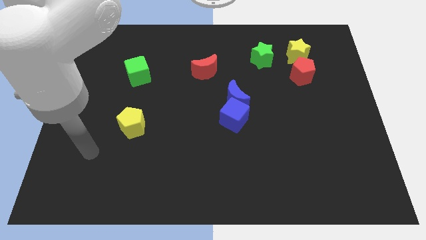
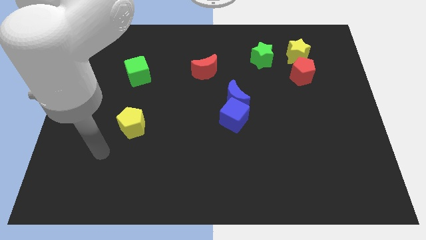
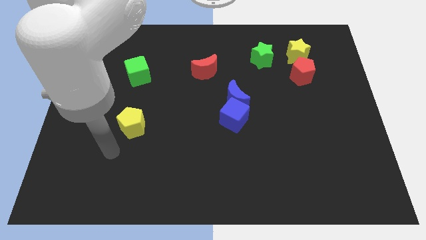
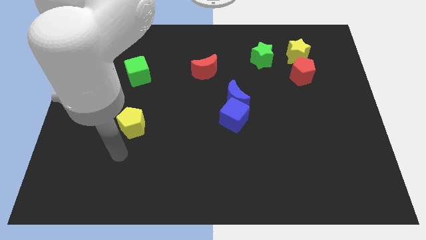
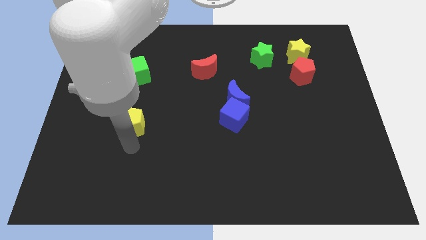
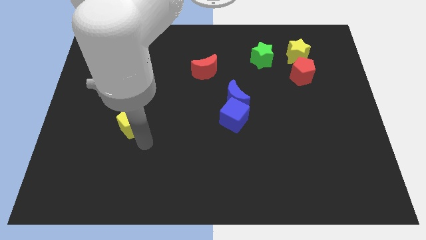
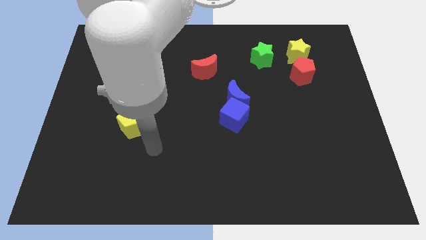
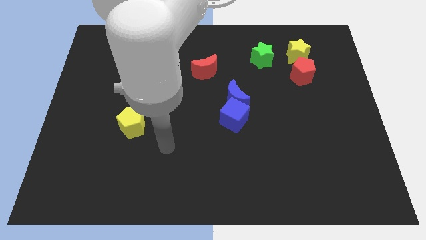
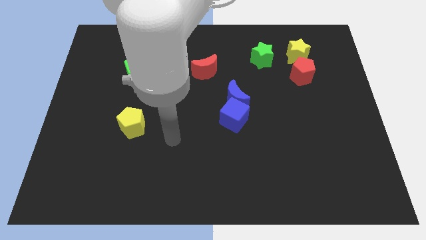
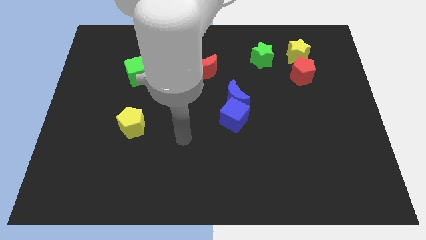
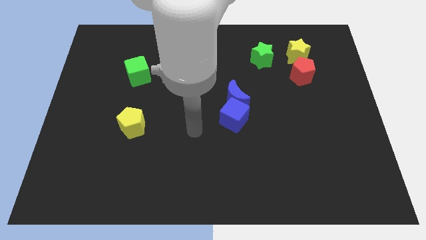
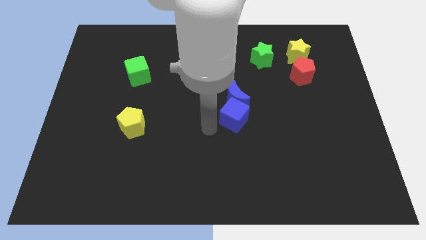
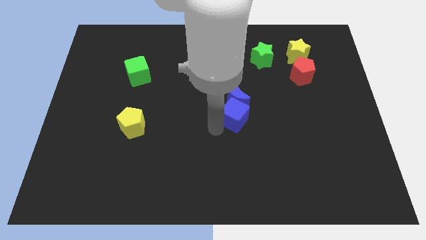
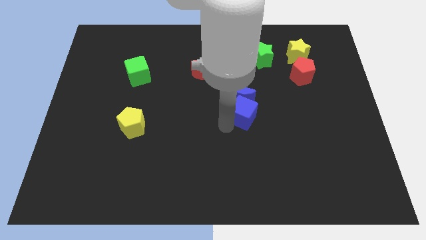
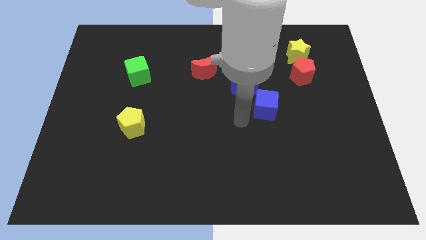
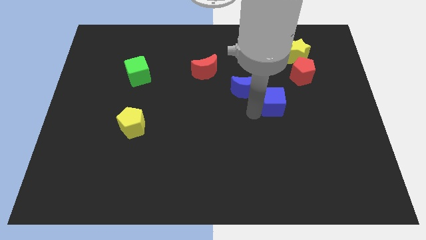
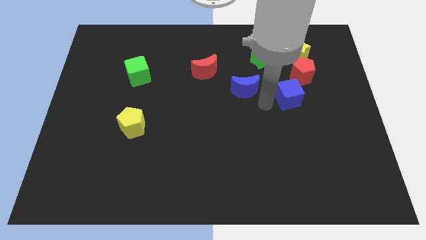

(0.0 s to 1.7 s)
pull the blue moon apart from the blue cube

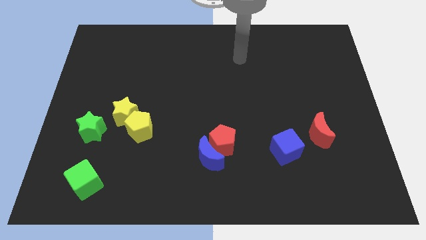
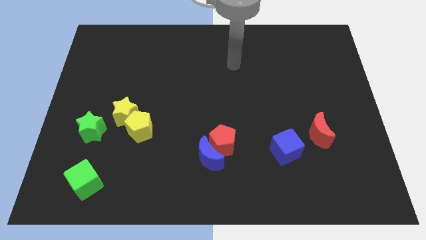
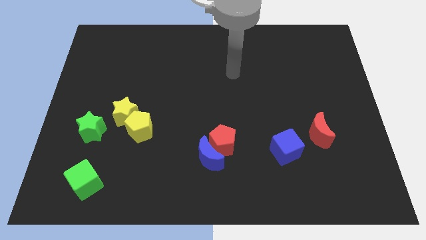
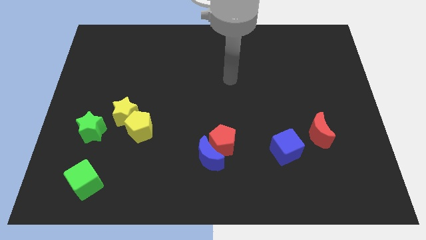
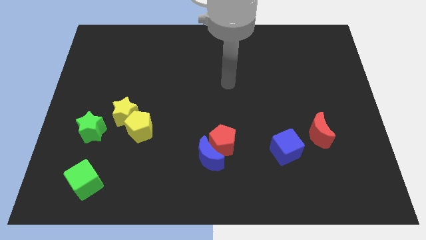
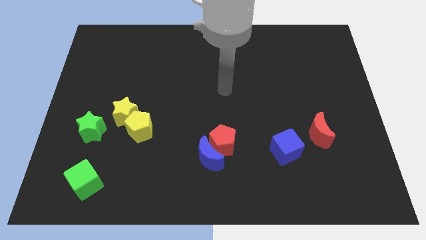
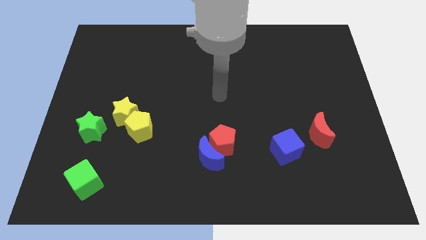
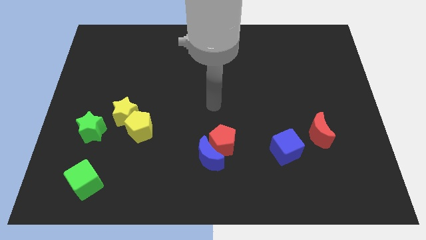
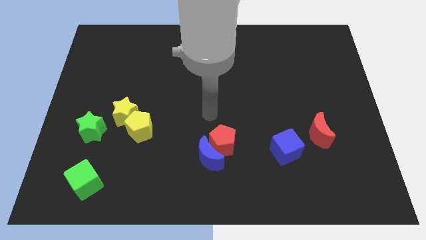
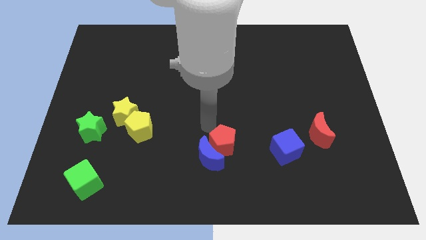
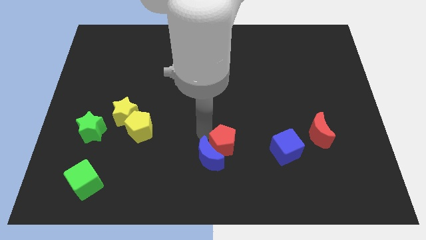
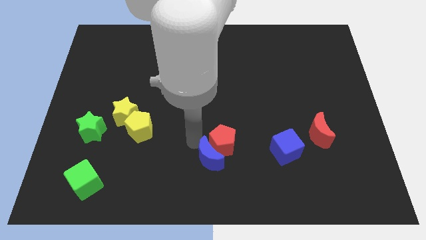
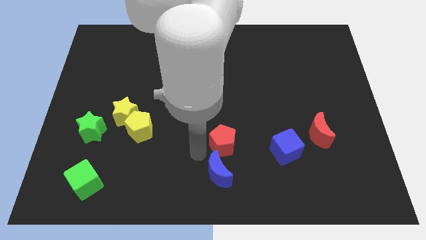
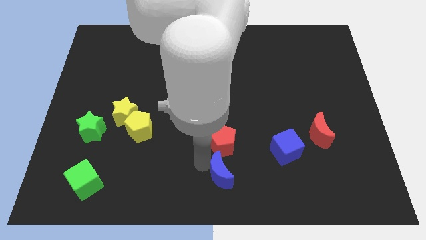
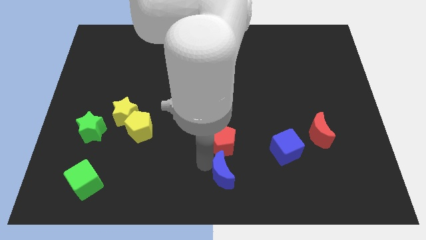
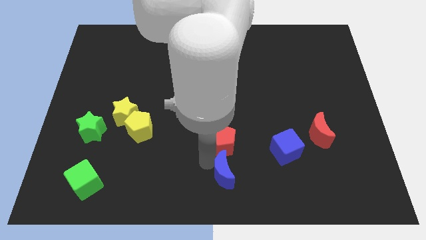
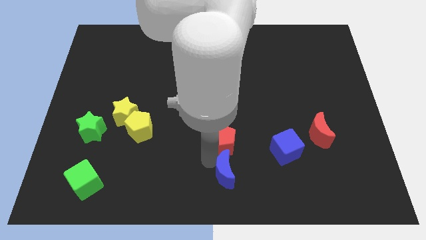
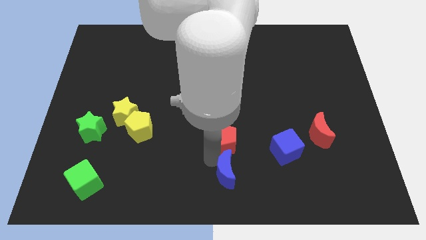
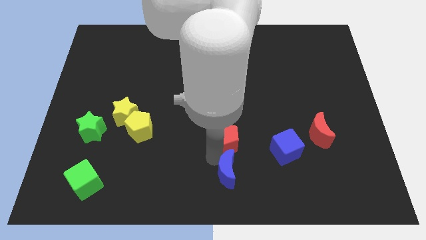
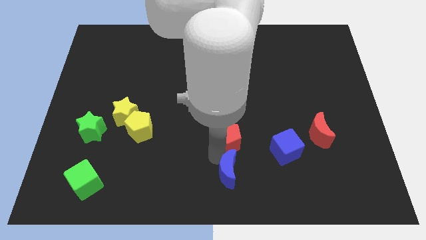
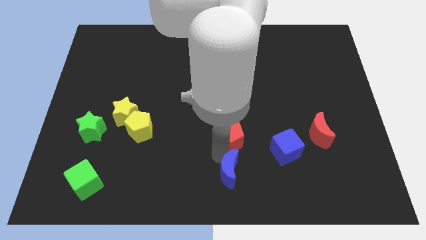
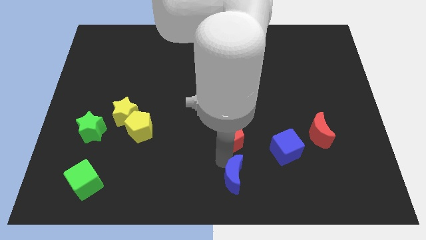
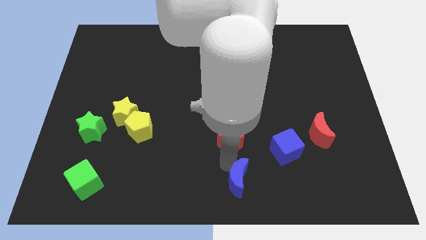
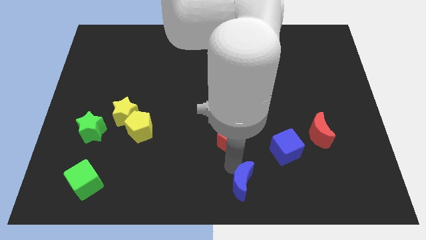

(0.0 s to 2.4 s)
separate the red pentagon from the blue moon

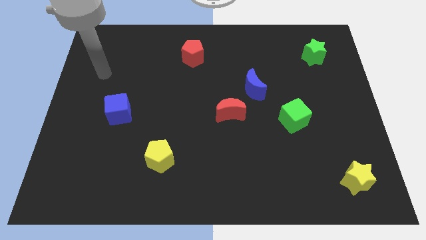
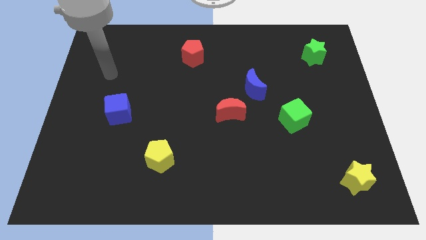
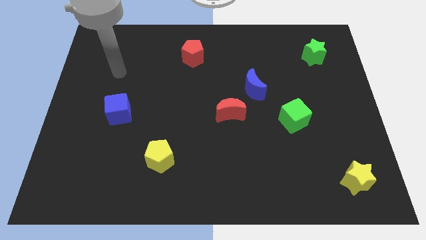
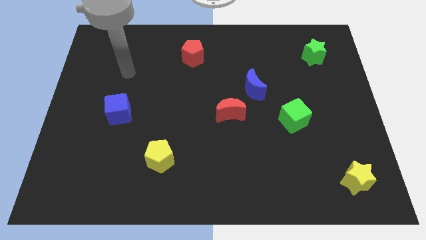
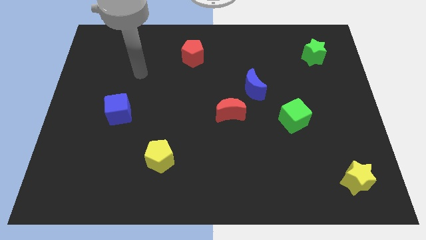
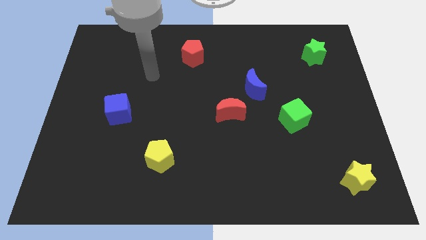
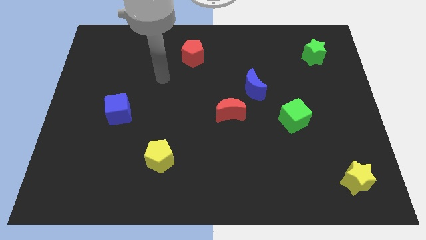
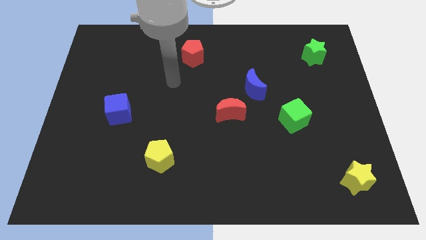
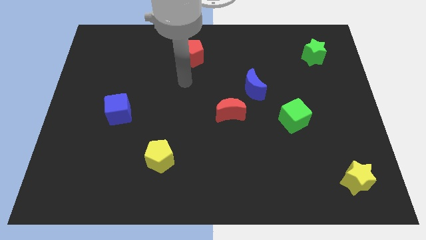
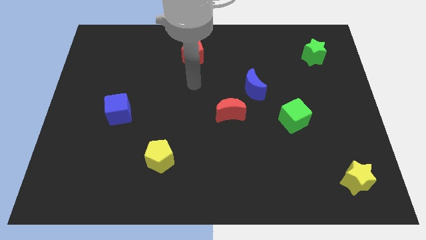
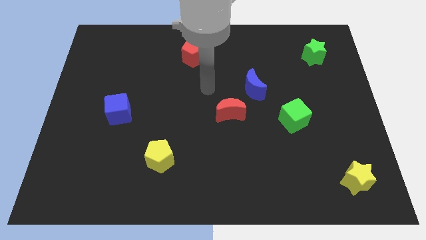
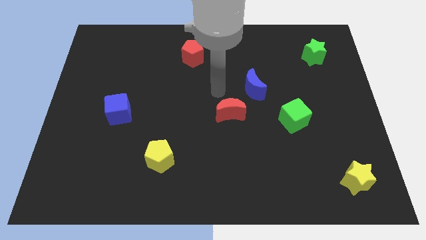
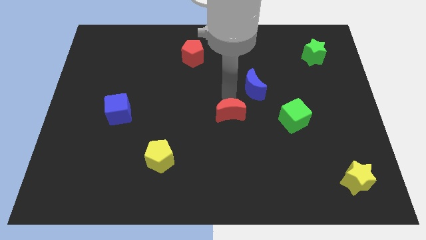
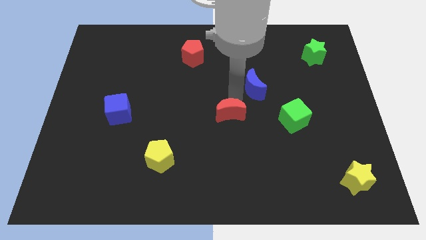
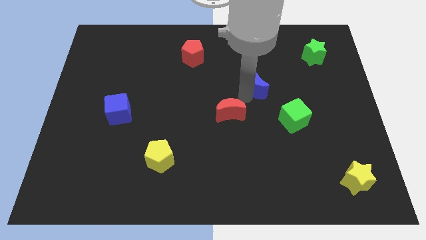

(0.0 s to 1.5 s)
separate the red moon from the blue moon

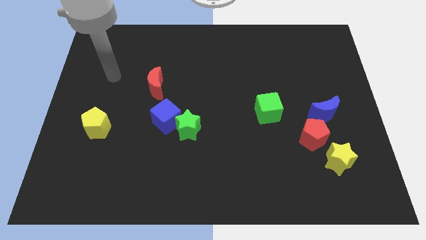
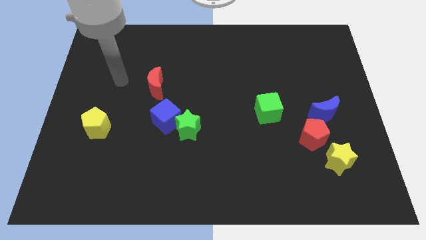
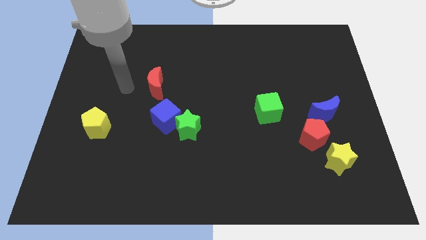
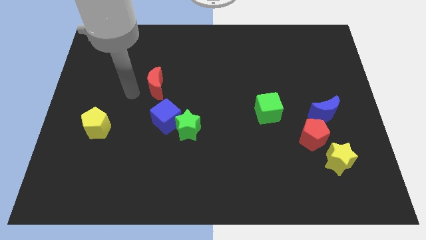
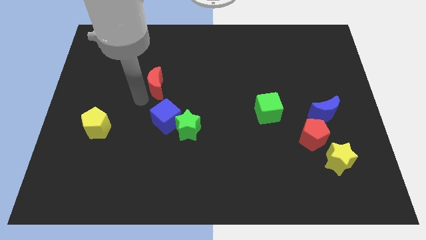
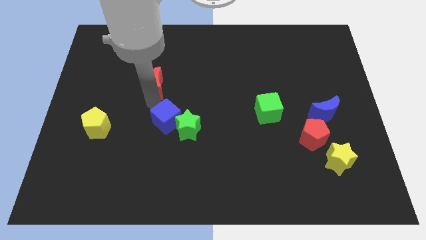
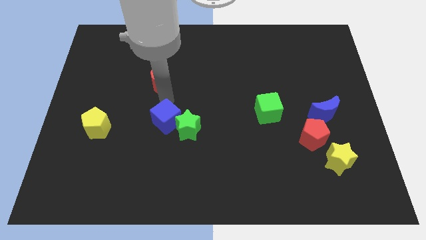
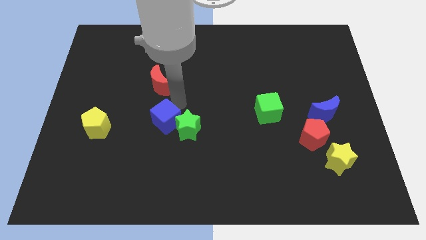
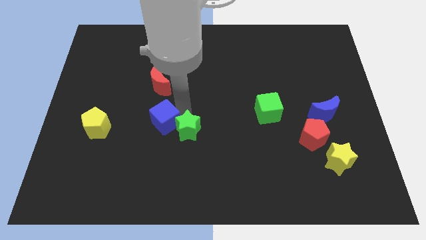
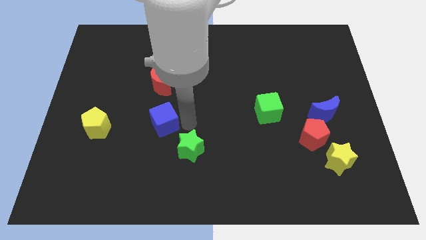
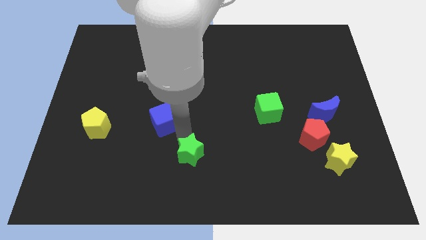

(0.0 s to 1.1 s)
pull the blue cube apart from the green star

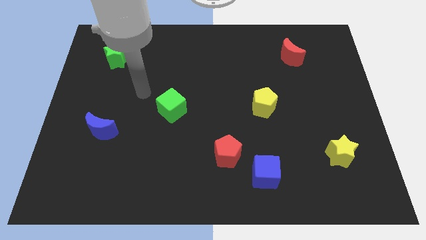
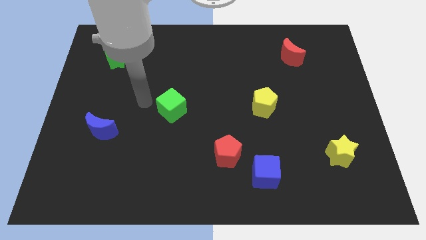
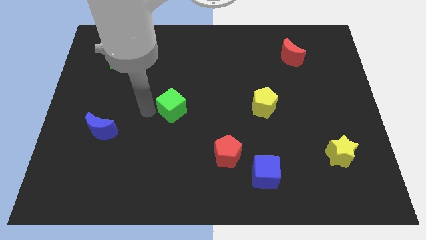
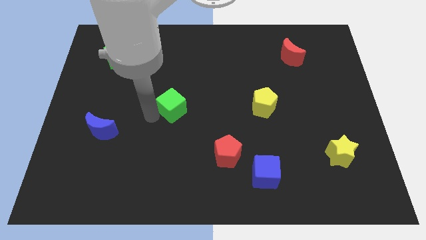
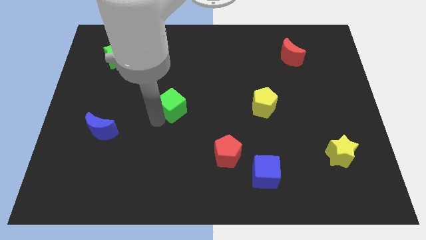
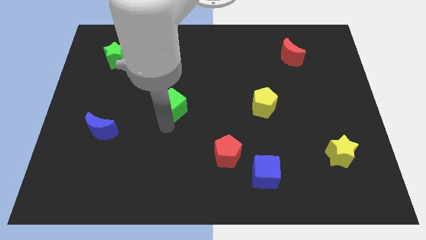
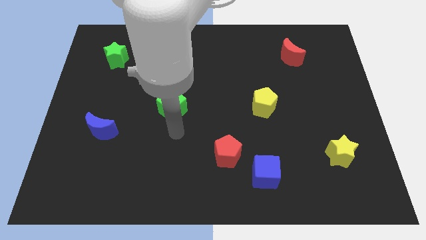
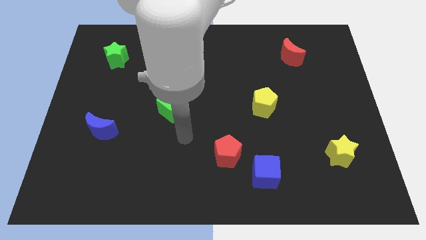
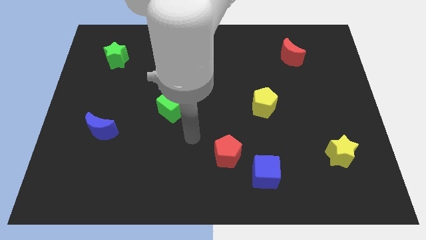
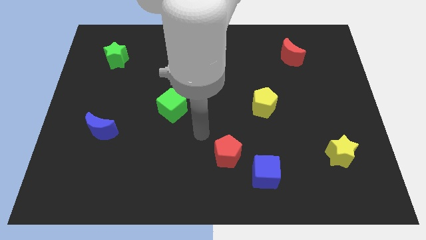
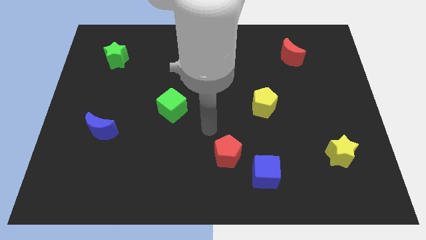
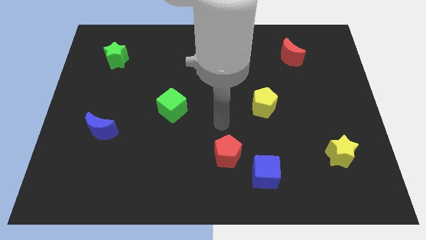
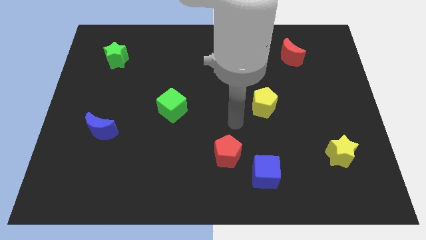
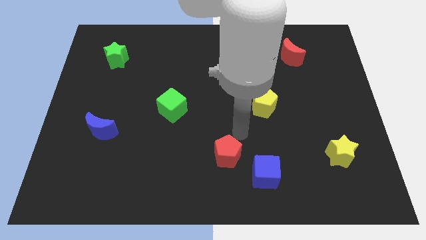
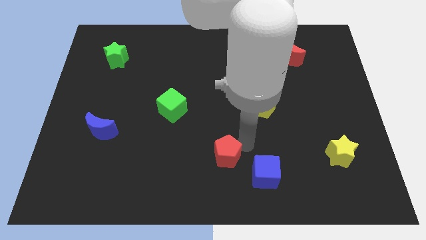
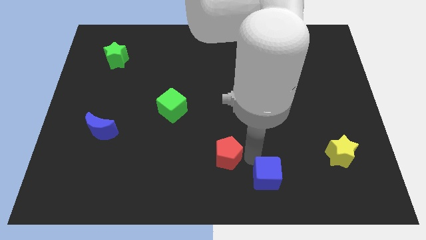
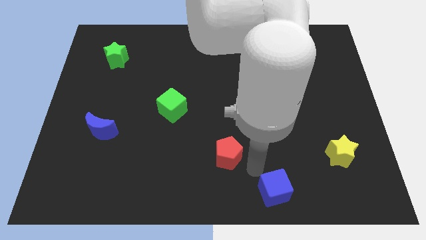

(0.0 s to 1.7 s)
pull the red pentagon apart from the blue cube

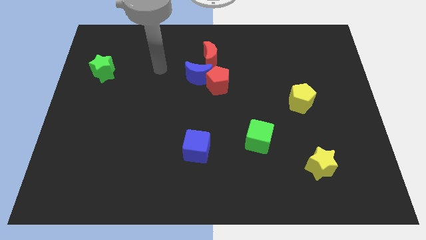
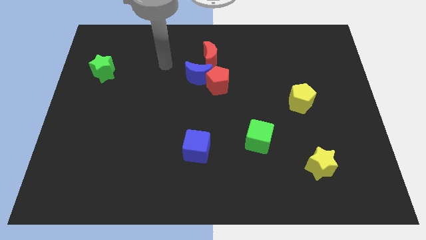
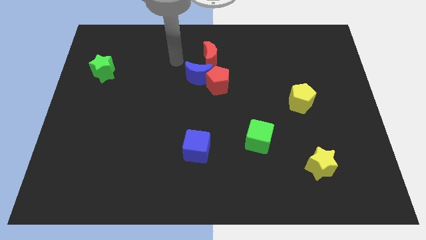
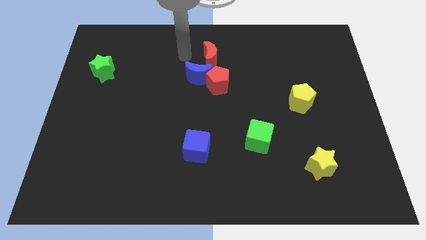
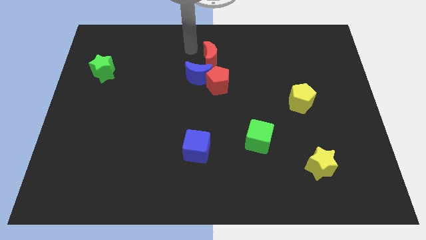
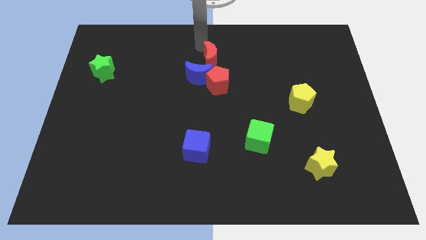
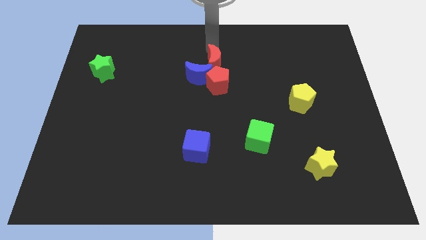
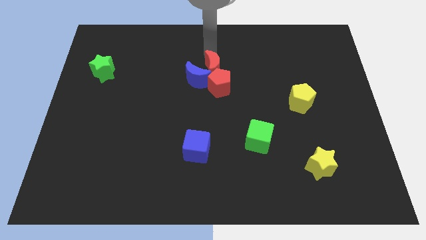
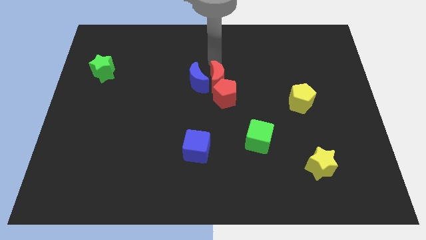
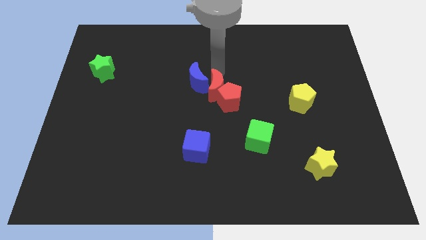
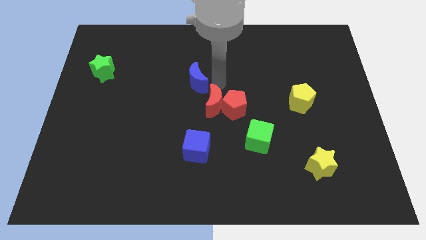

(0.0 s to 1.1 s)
pull the blue moon apart from the red pentagon and red moon
